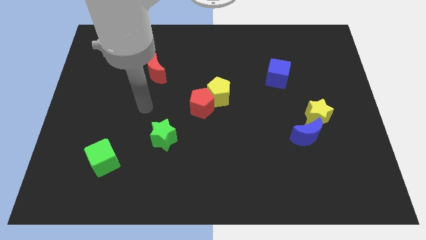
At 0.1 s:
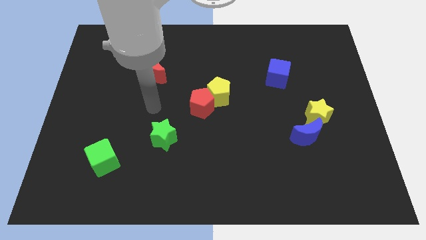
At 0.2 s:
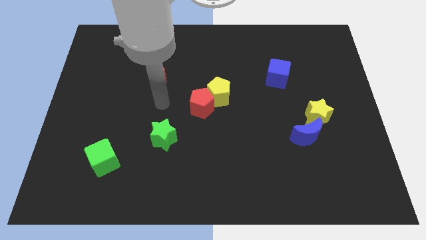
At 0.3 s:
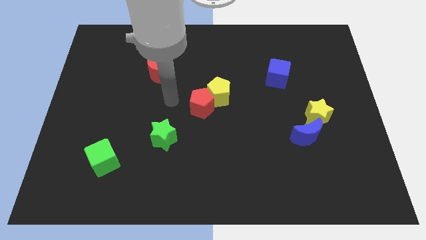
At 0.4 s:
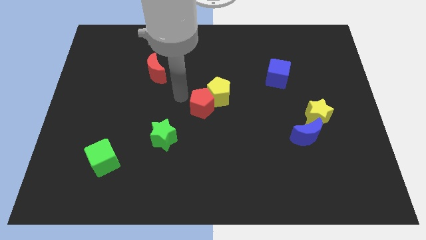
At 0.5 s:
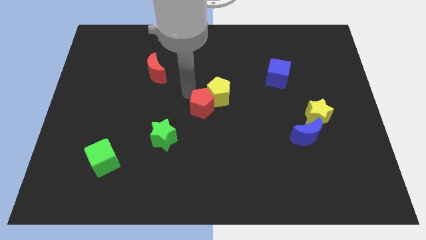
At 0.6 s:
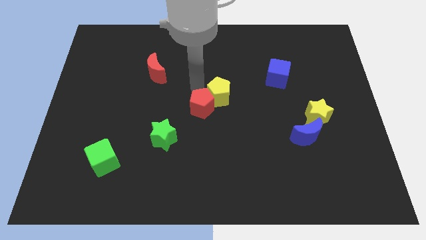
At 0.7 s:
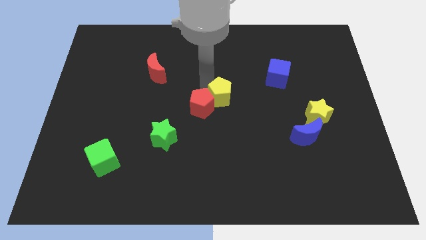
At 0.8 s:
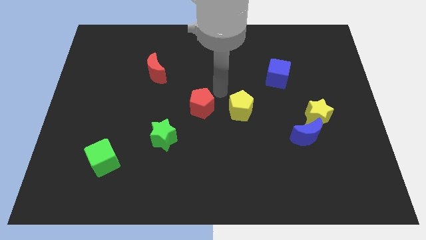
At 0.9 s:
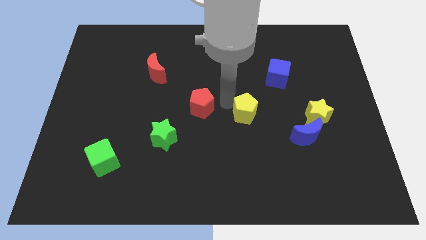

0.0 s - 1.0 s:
move the red pentagon away from the yellow pentagon

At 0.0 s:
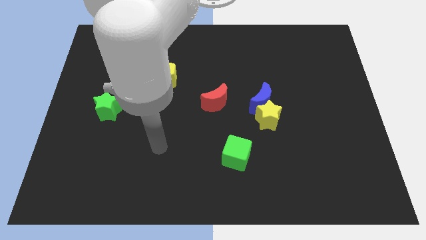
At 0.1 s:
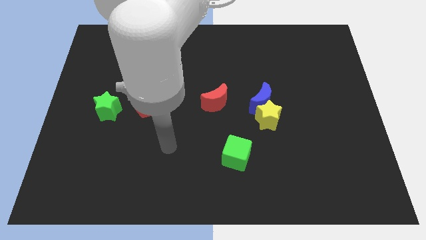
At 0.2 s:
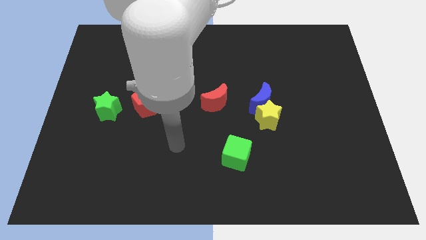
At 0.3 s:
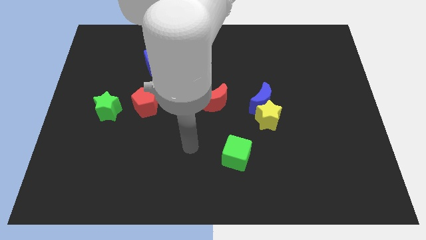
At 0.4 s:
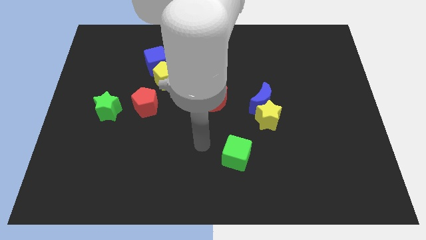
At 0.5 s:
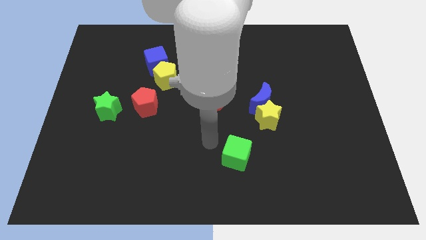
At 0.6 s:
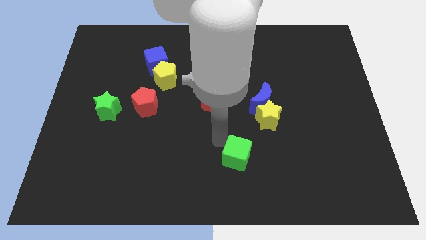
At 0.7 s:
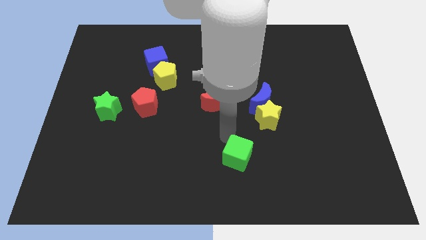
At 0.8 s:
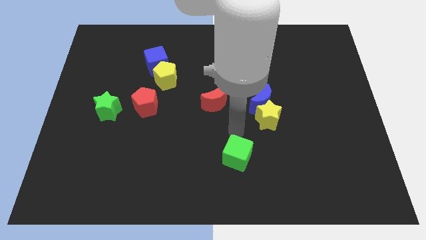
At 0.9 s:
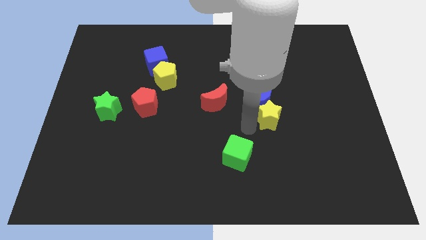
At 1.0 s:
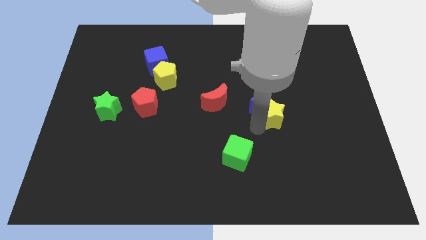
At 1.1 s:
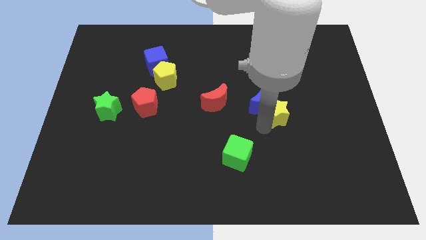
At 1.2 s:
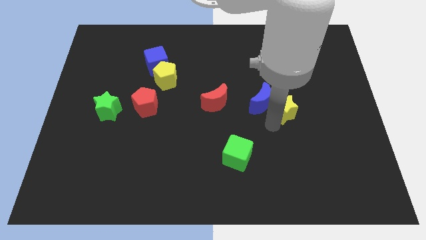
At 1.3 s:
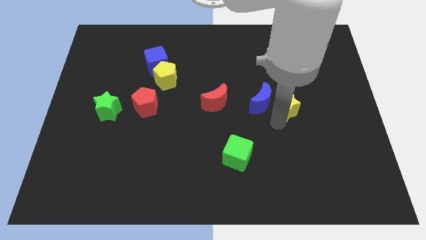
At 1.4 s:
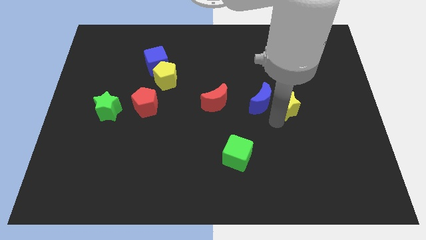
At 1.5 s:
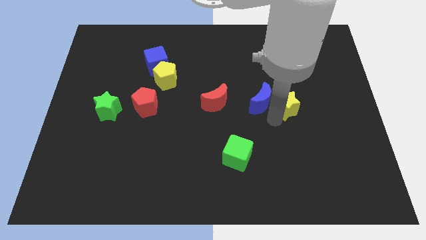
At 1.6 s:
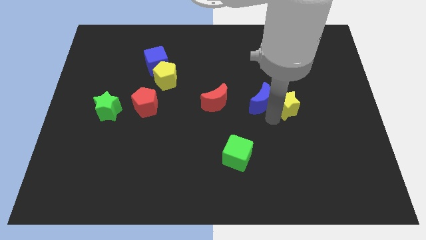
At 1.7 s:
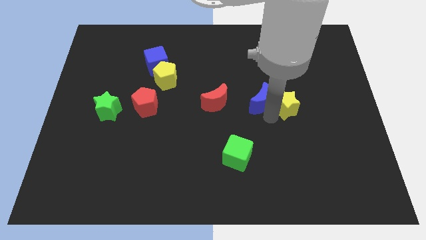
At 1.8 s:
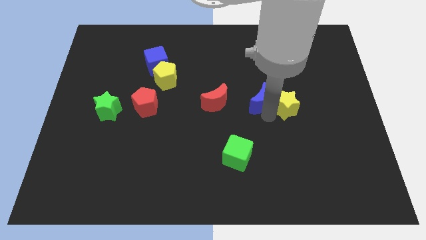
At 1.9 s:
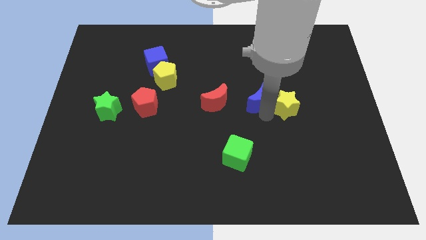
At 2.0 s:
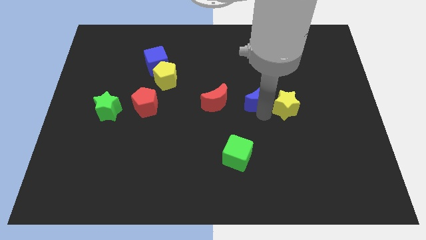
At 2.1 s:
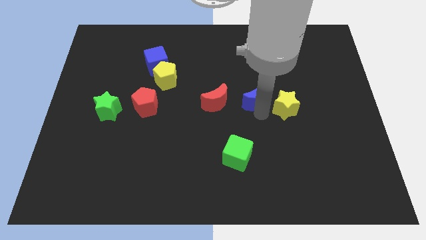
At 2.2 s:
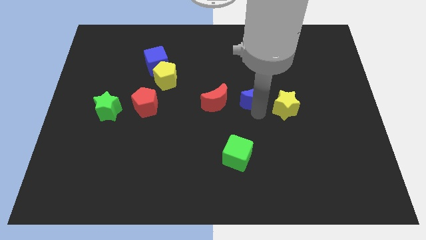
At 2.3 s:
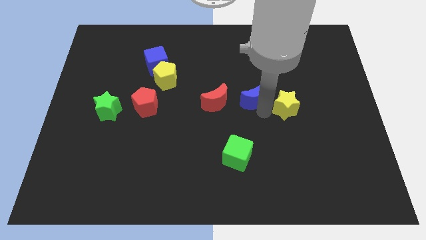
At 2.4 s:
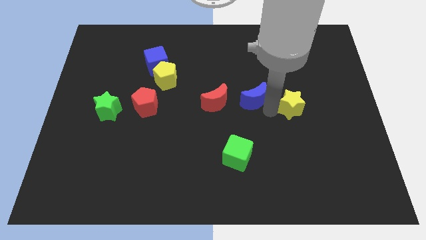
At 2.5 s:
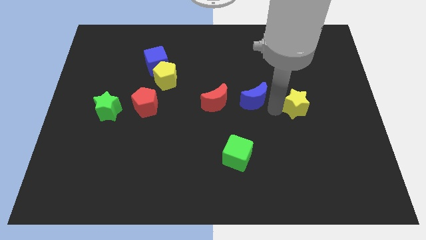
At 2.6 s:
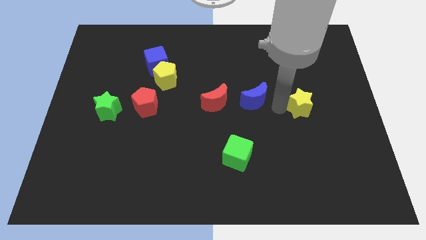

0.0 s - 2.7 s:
move the blue moon away from the yellow star

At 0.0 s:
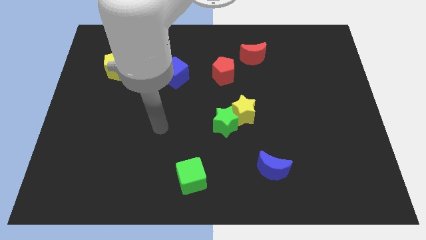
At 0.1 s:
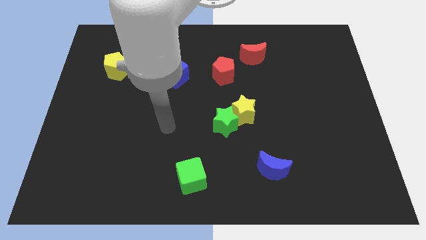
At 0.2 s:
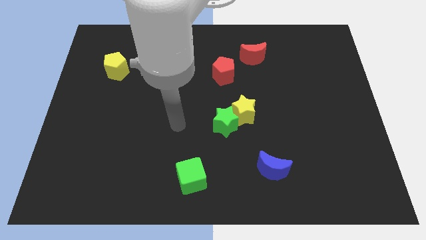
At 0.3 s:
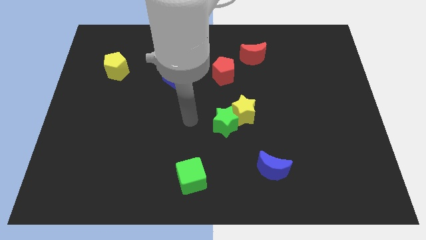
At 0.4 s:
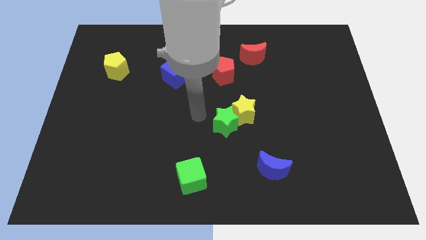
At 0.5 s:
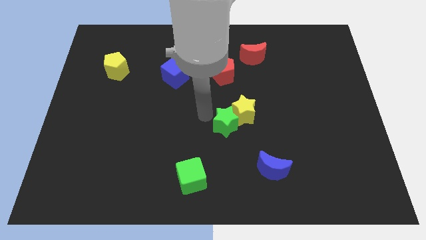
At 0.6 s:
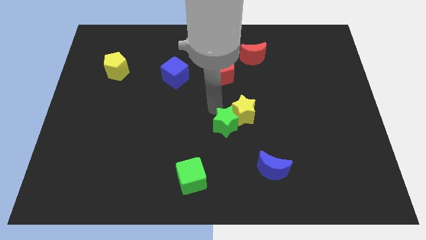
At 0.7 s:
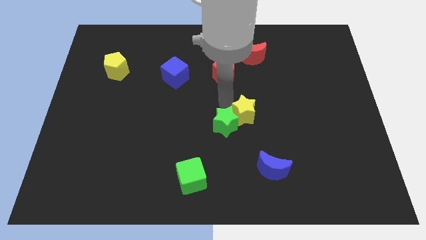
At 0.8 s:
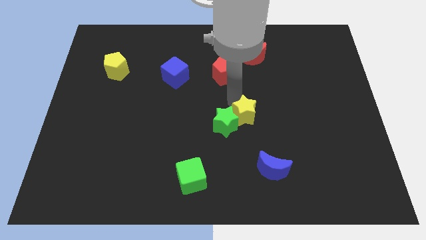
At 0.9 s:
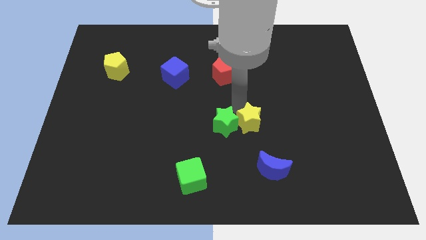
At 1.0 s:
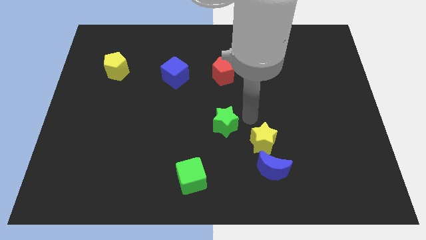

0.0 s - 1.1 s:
pull the green star apart from the yellow star

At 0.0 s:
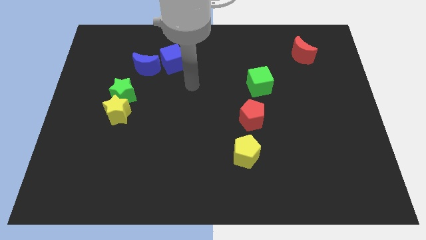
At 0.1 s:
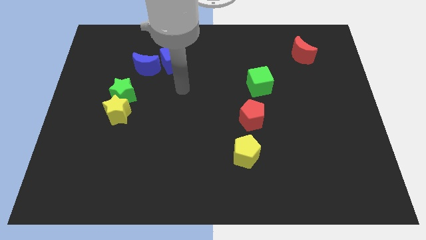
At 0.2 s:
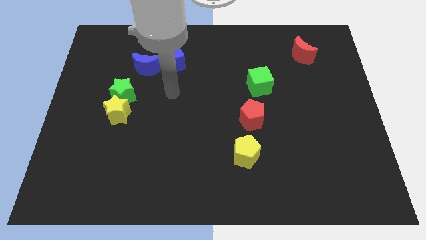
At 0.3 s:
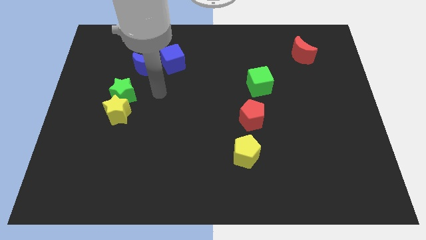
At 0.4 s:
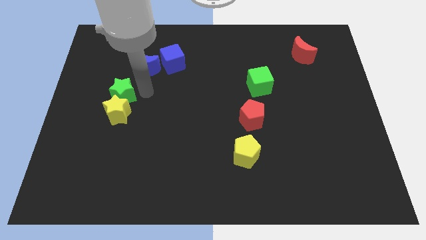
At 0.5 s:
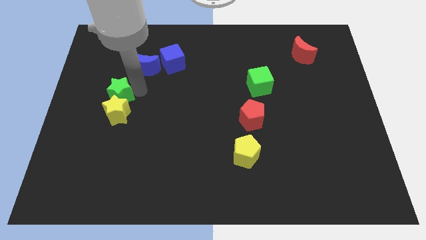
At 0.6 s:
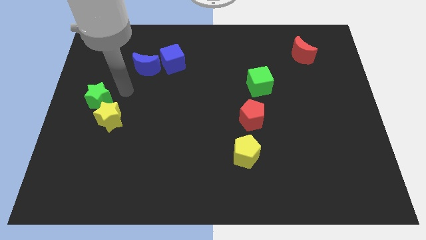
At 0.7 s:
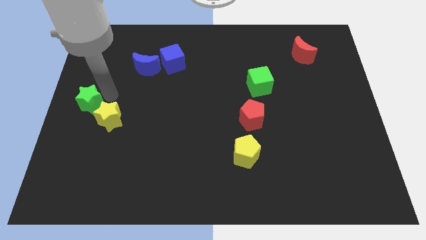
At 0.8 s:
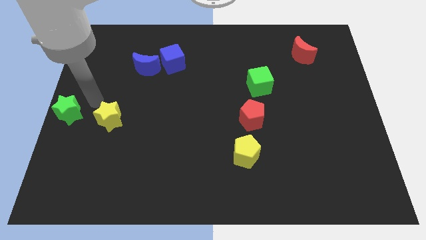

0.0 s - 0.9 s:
pull the yellow star apart from the green star

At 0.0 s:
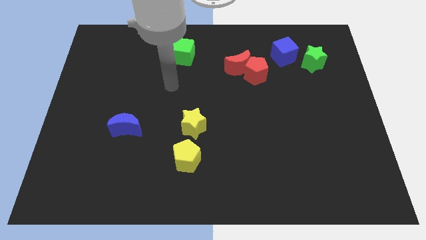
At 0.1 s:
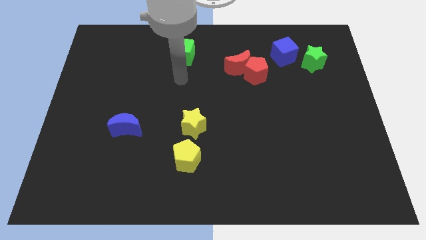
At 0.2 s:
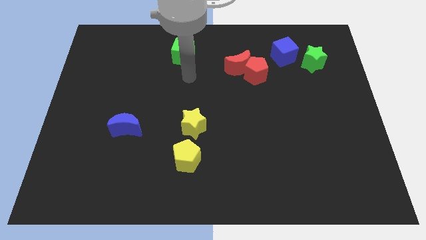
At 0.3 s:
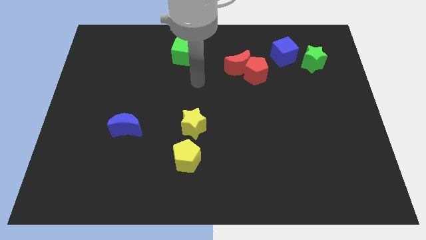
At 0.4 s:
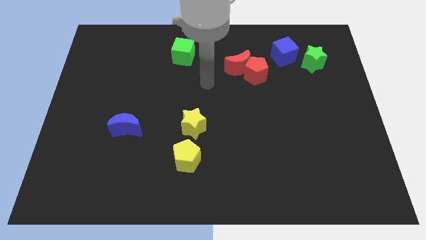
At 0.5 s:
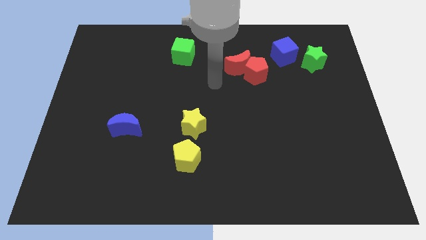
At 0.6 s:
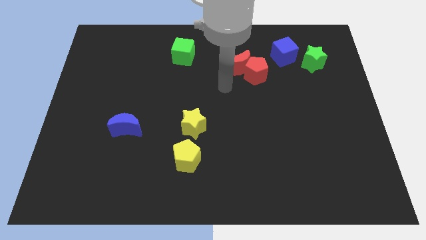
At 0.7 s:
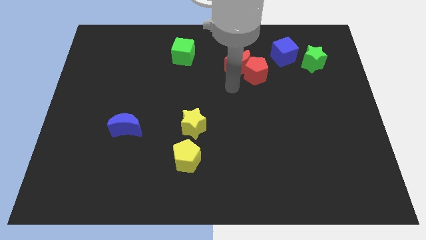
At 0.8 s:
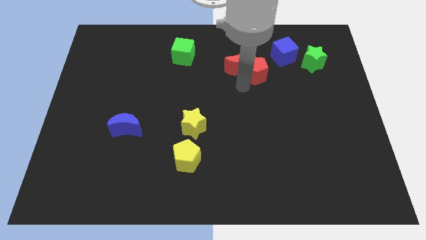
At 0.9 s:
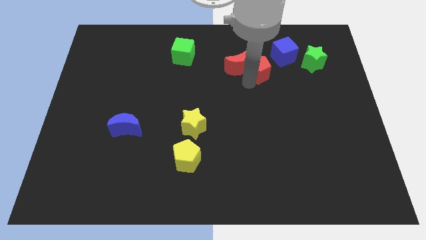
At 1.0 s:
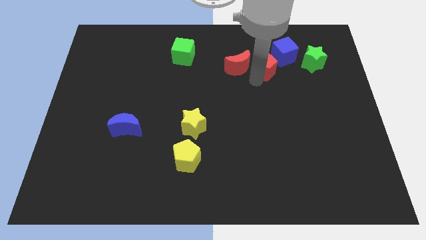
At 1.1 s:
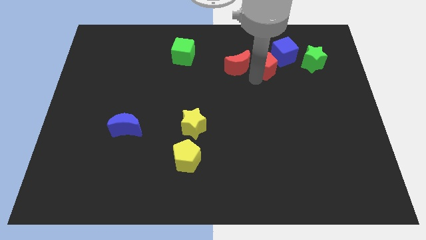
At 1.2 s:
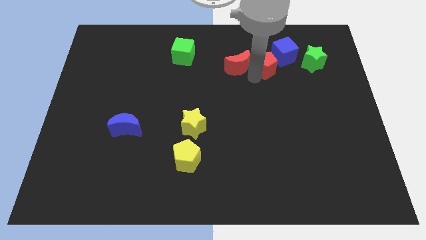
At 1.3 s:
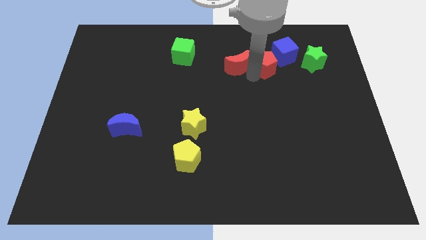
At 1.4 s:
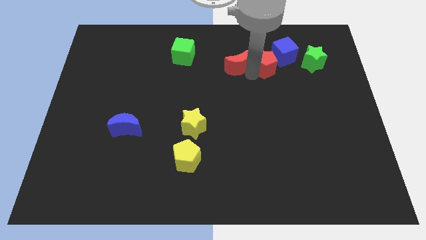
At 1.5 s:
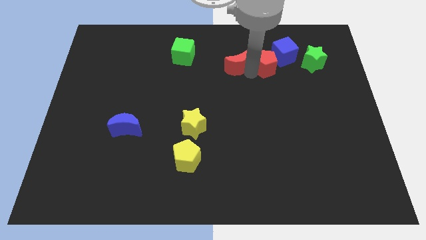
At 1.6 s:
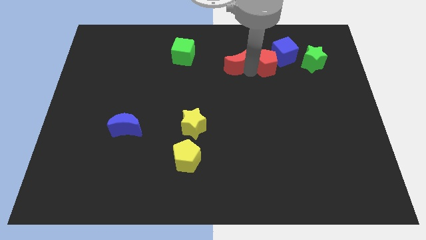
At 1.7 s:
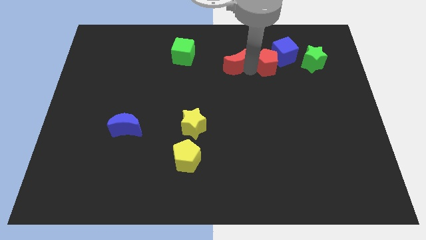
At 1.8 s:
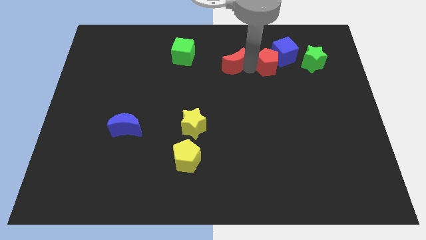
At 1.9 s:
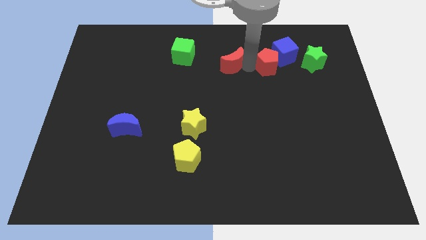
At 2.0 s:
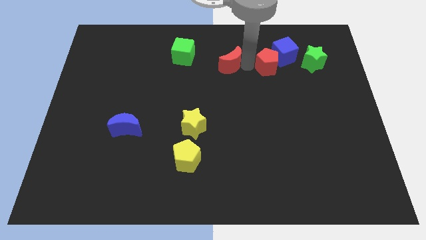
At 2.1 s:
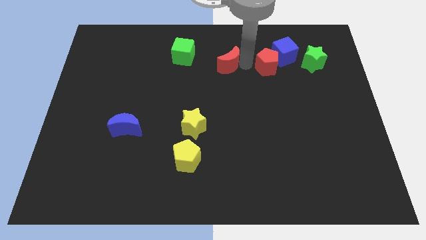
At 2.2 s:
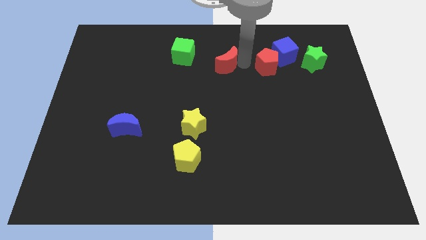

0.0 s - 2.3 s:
separate the red moon from the red pentagon

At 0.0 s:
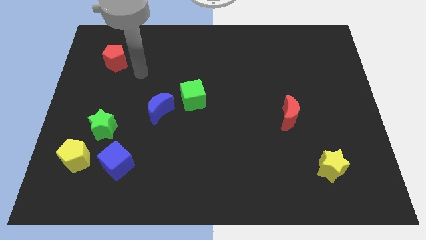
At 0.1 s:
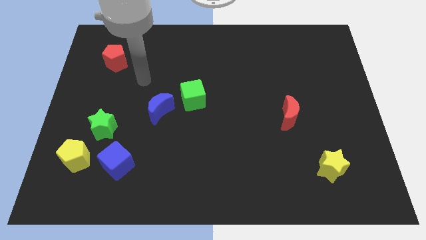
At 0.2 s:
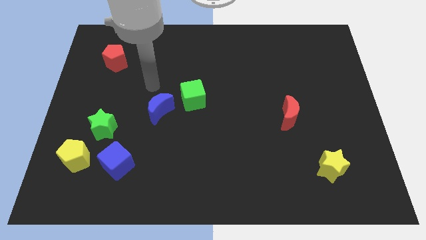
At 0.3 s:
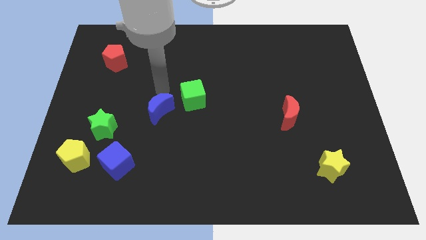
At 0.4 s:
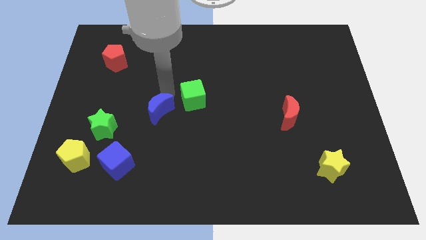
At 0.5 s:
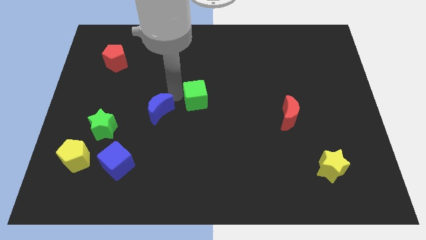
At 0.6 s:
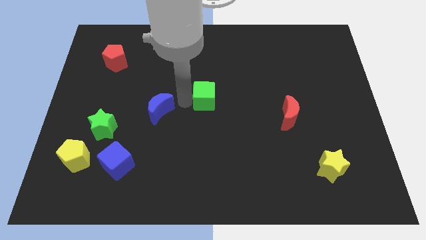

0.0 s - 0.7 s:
separate the blue moon from the green cube

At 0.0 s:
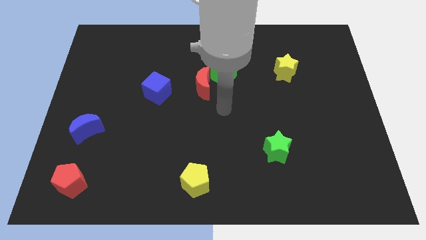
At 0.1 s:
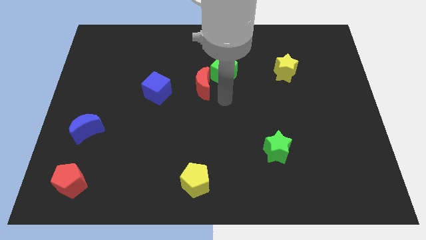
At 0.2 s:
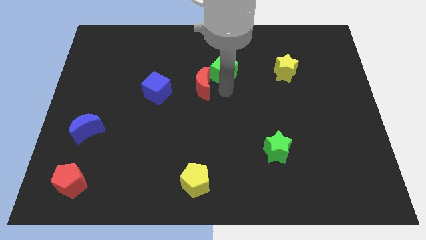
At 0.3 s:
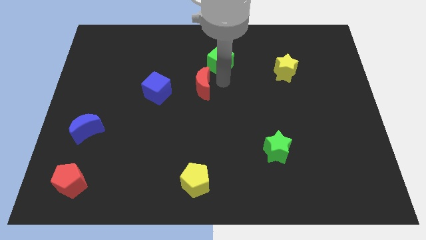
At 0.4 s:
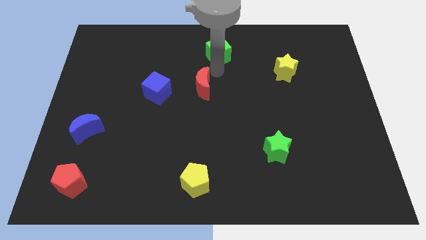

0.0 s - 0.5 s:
move the red moon away from the green cube

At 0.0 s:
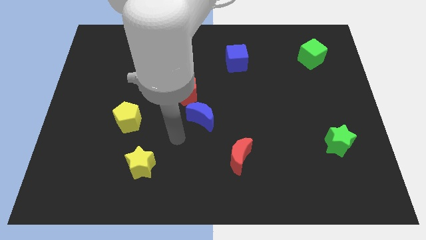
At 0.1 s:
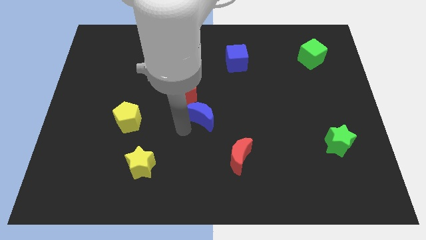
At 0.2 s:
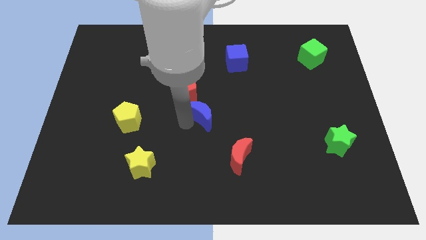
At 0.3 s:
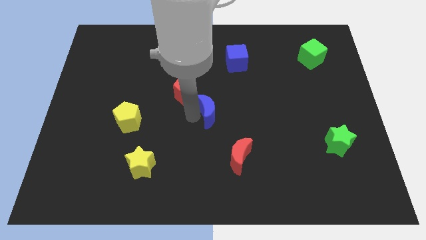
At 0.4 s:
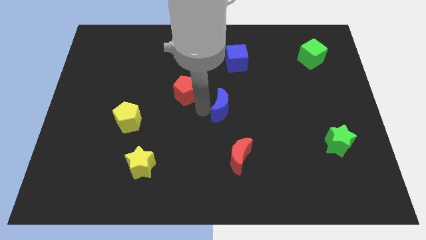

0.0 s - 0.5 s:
pull the red pentagon apart from the blue moon
